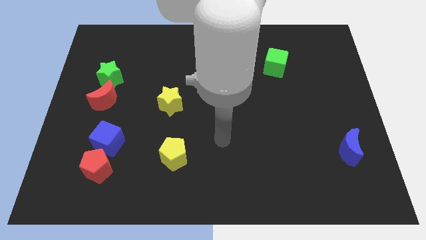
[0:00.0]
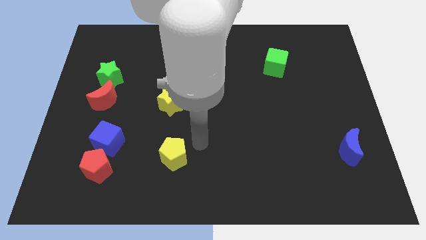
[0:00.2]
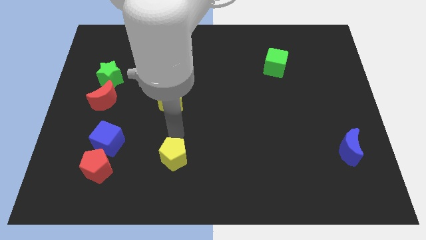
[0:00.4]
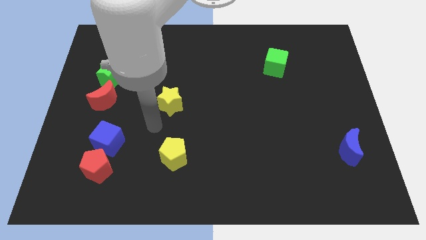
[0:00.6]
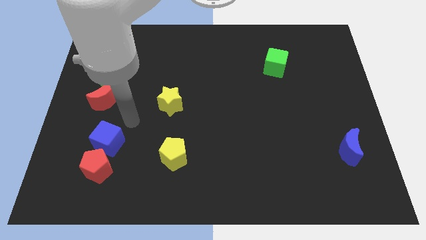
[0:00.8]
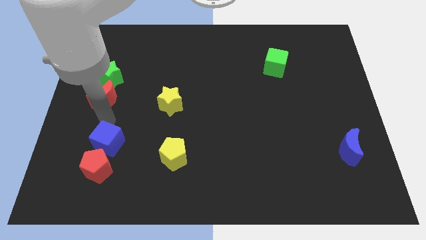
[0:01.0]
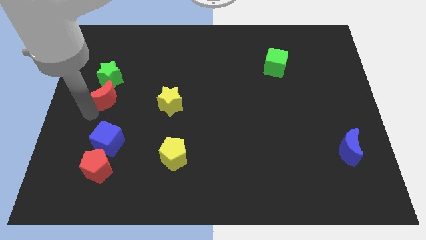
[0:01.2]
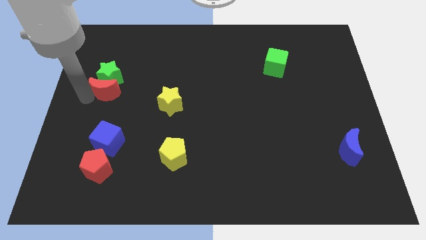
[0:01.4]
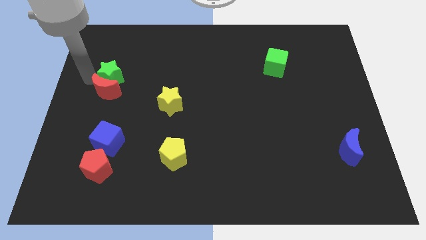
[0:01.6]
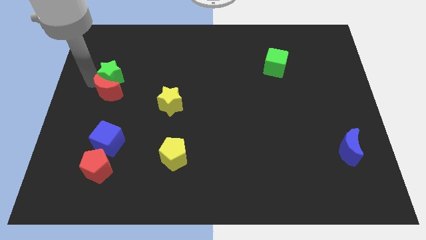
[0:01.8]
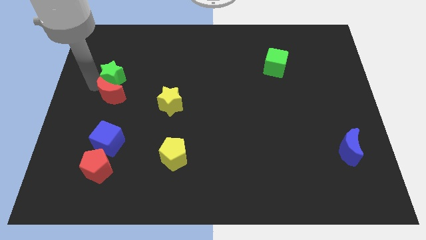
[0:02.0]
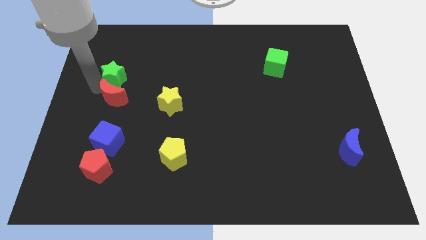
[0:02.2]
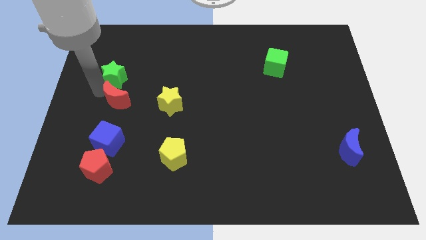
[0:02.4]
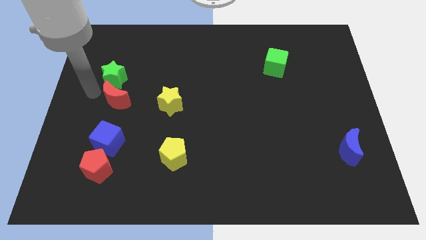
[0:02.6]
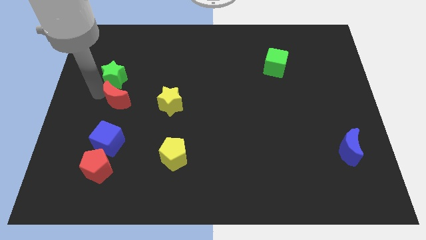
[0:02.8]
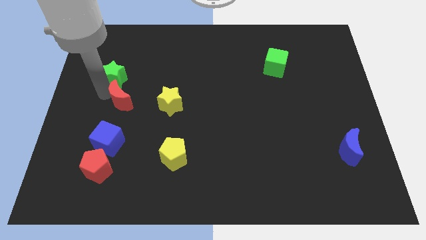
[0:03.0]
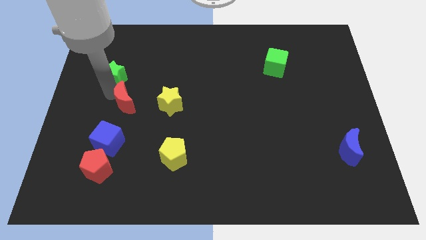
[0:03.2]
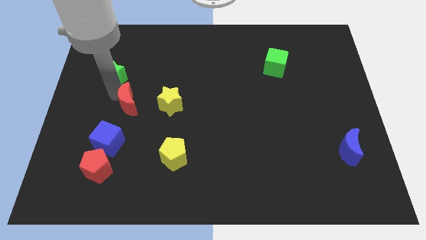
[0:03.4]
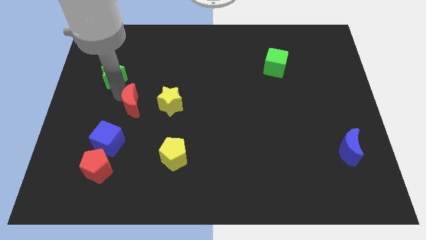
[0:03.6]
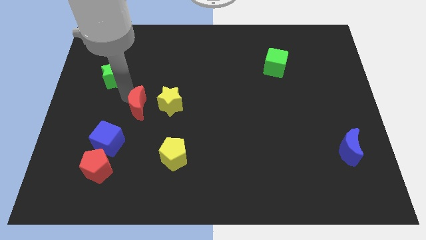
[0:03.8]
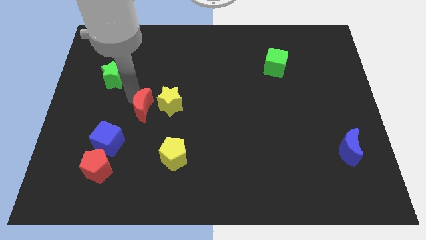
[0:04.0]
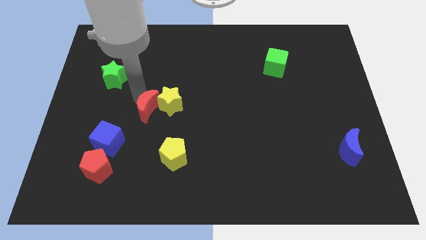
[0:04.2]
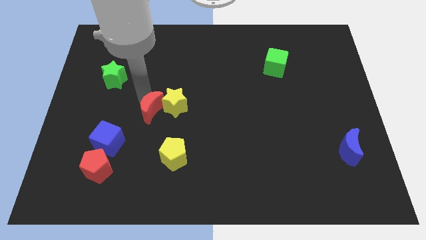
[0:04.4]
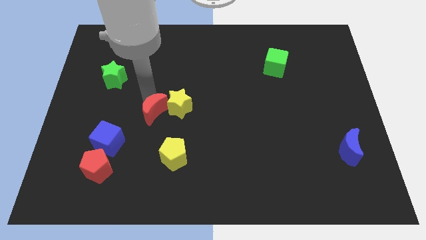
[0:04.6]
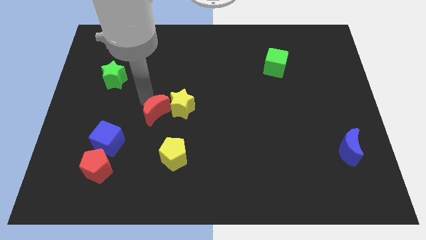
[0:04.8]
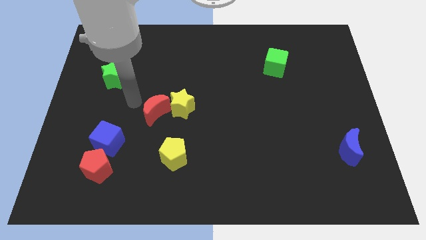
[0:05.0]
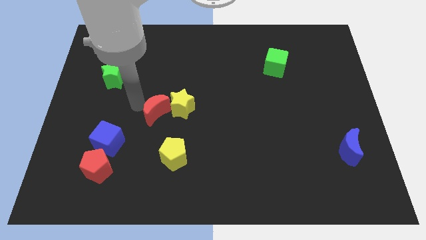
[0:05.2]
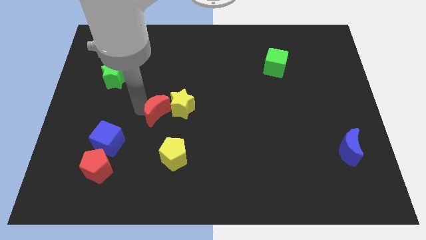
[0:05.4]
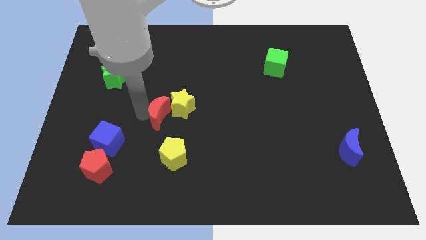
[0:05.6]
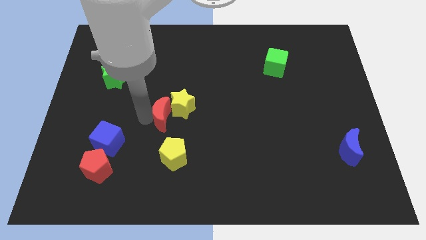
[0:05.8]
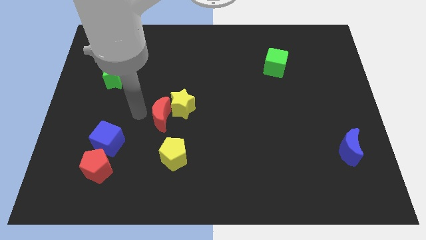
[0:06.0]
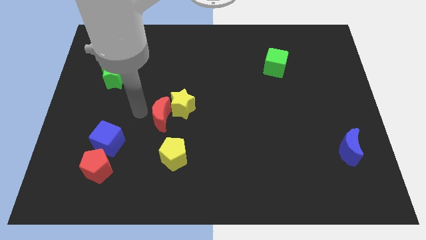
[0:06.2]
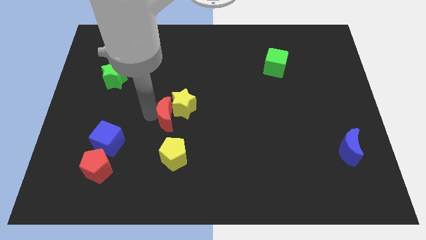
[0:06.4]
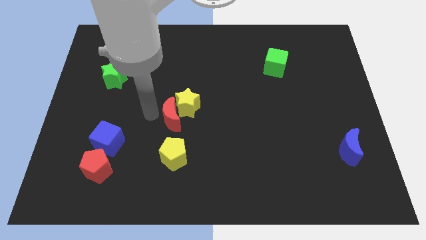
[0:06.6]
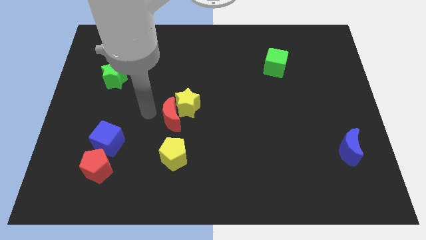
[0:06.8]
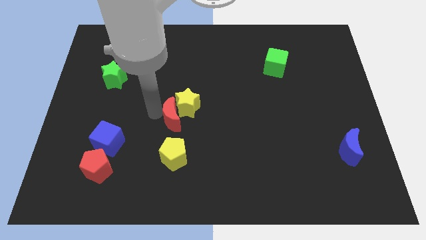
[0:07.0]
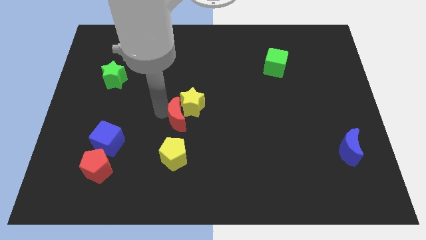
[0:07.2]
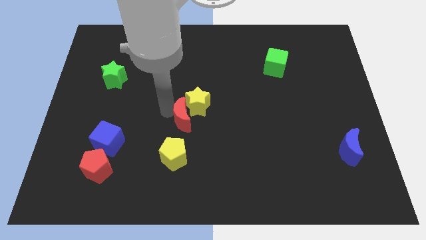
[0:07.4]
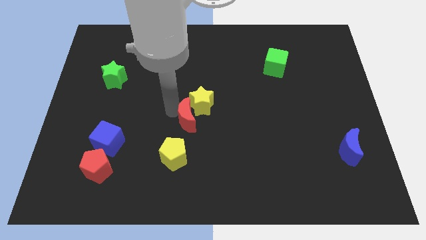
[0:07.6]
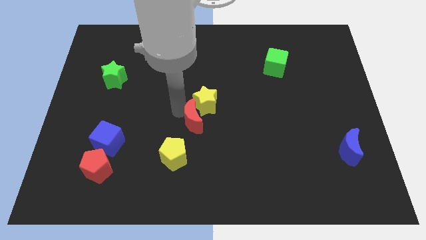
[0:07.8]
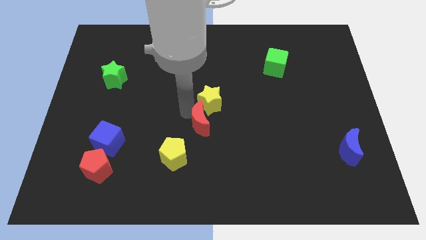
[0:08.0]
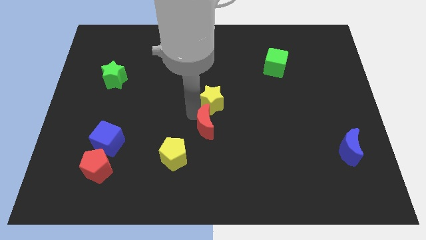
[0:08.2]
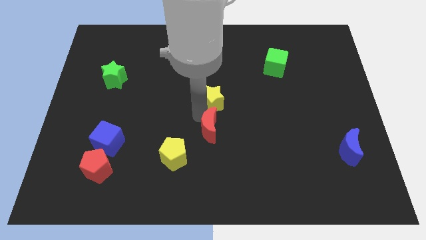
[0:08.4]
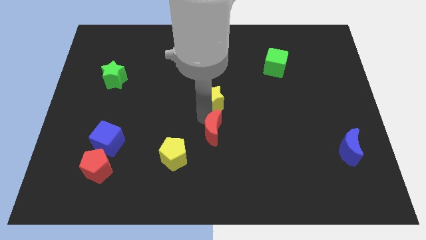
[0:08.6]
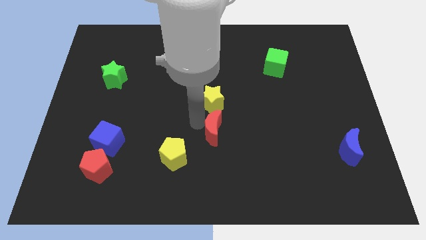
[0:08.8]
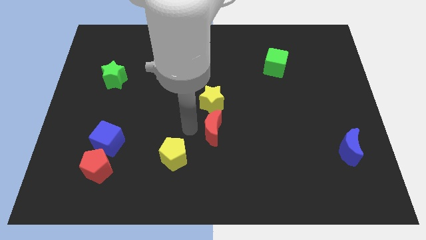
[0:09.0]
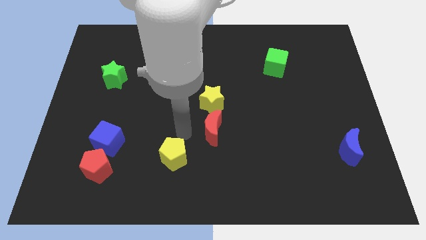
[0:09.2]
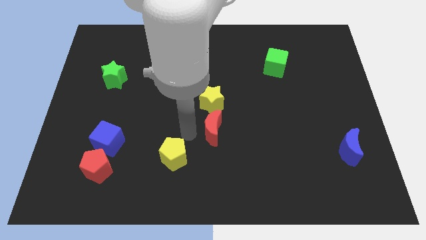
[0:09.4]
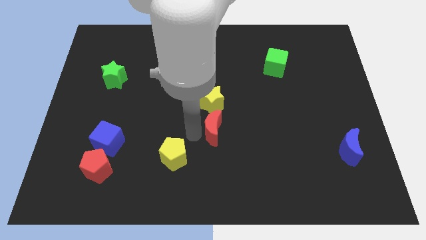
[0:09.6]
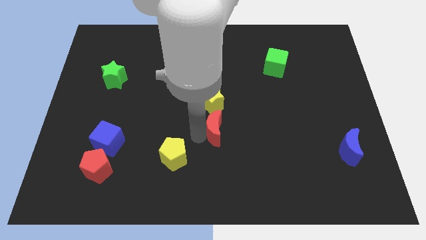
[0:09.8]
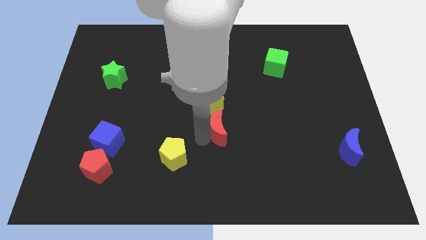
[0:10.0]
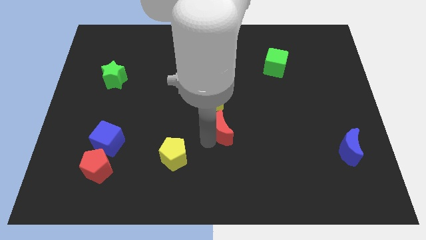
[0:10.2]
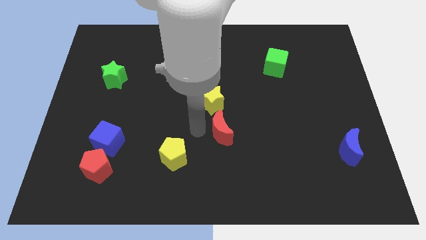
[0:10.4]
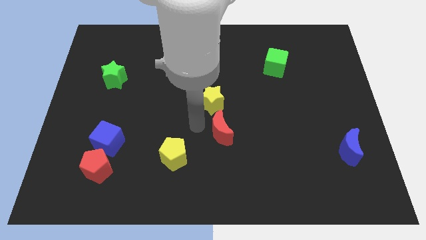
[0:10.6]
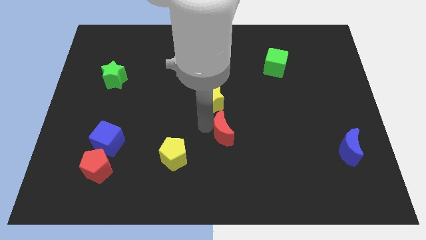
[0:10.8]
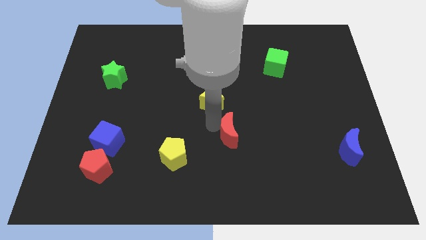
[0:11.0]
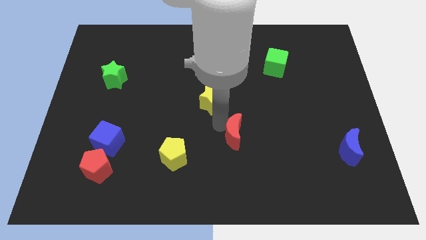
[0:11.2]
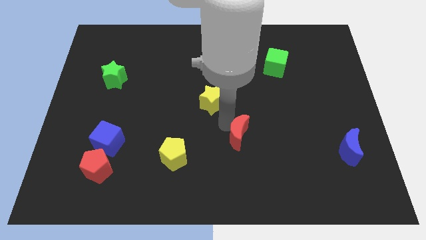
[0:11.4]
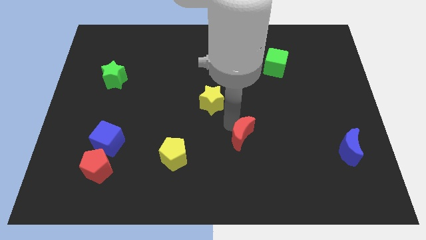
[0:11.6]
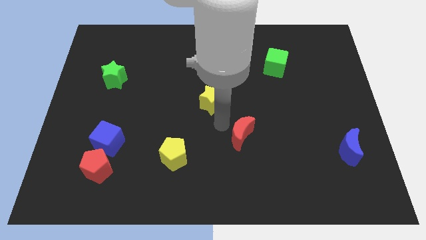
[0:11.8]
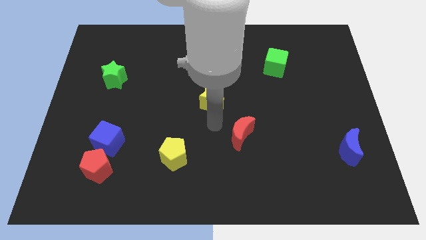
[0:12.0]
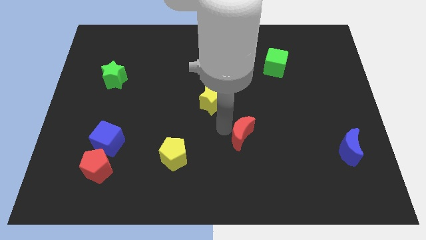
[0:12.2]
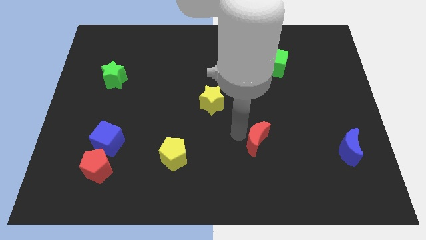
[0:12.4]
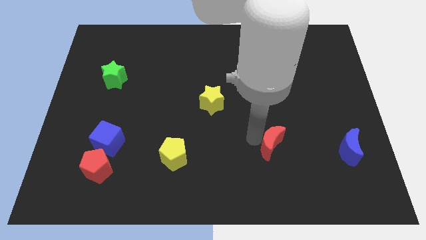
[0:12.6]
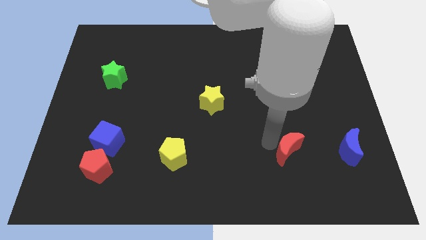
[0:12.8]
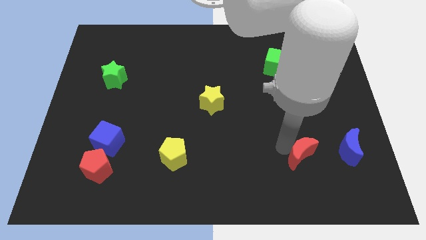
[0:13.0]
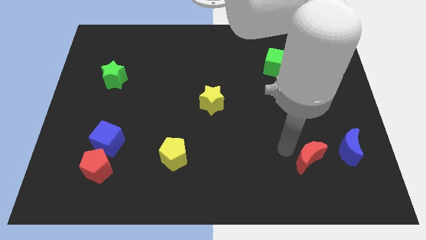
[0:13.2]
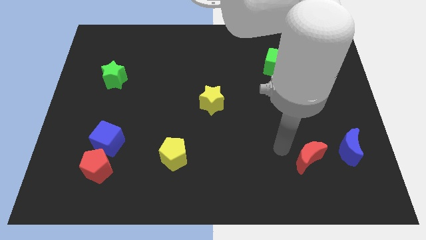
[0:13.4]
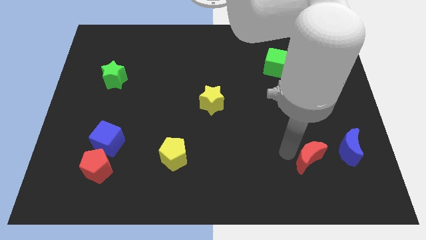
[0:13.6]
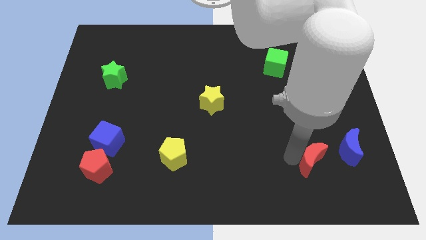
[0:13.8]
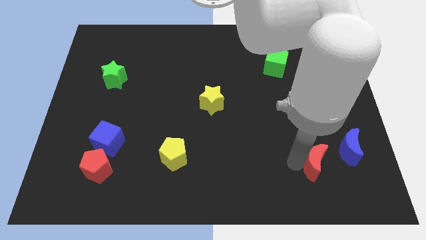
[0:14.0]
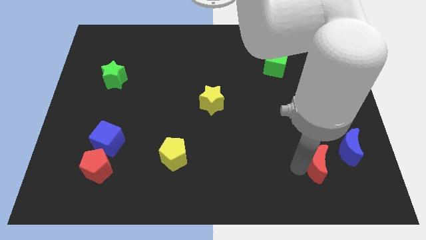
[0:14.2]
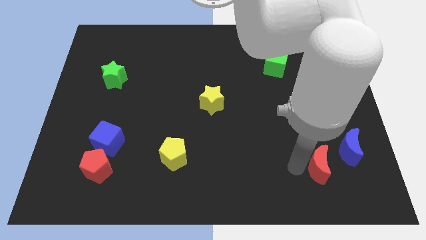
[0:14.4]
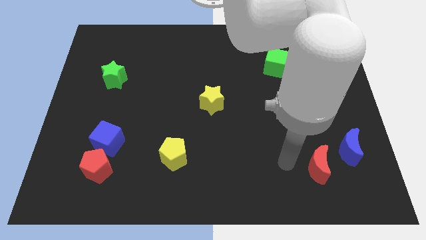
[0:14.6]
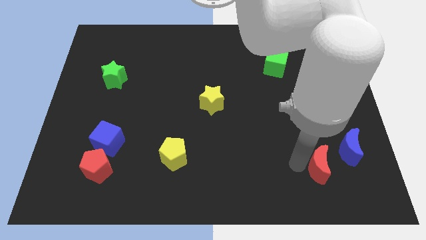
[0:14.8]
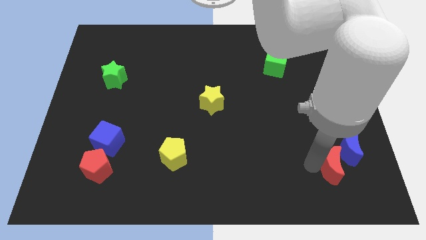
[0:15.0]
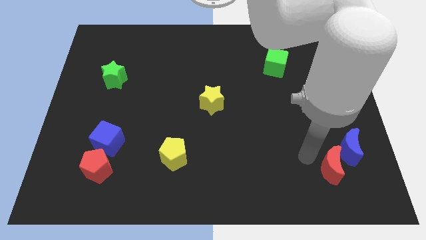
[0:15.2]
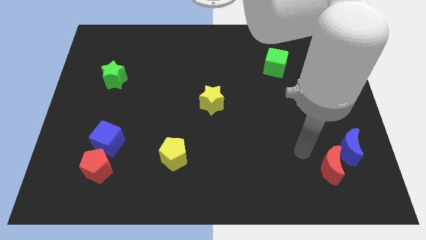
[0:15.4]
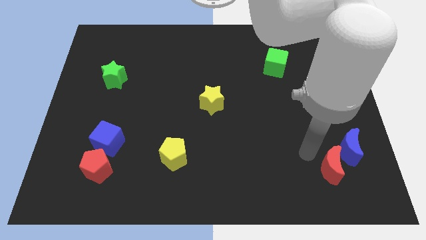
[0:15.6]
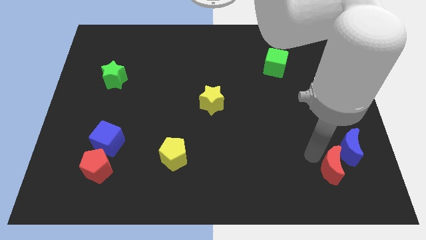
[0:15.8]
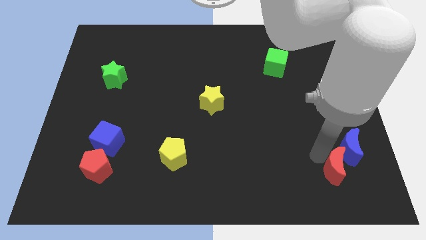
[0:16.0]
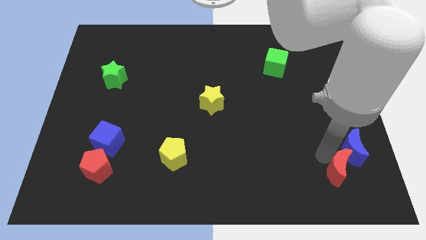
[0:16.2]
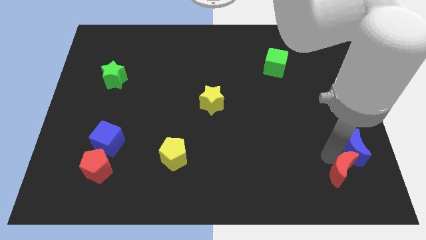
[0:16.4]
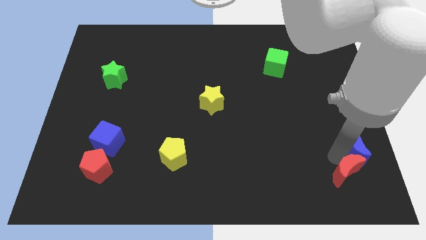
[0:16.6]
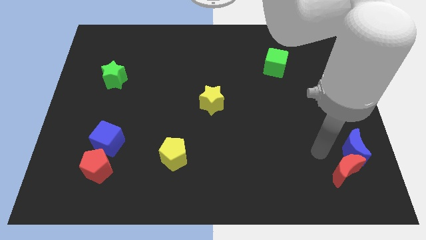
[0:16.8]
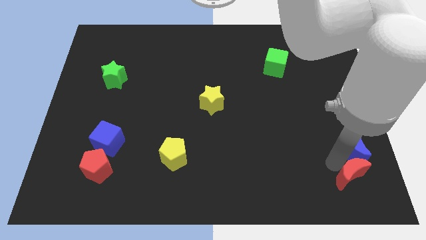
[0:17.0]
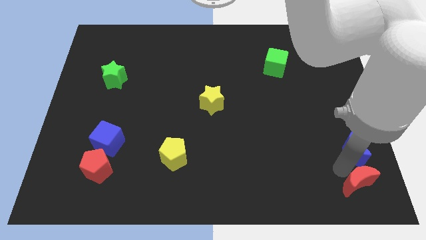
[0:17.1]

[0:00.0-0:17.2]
move the red moon to the bottom right of the board
